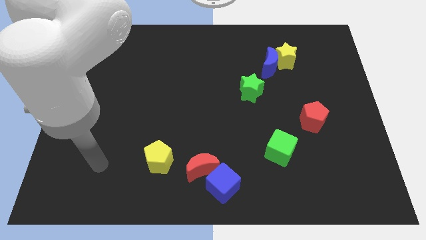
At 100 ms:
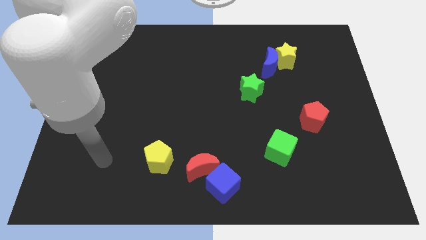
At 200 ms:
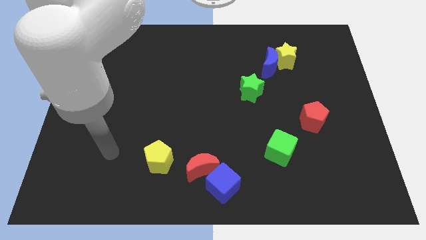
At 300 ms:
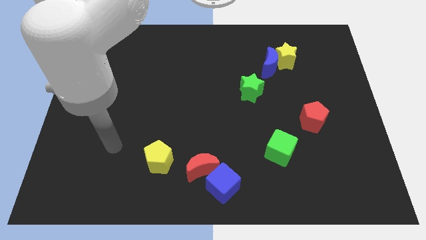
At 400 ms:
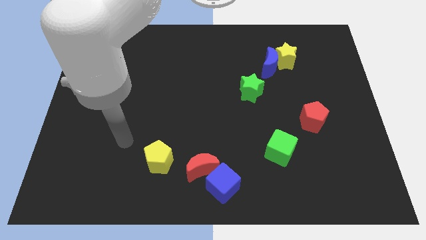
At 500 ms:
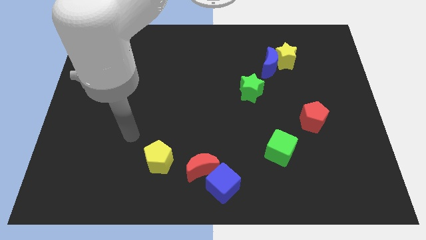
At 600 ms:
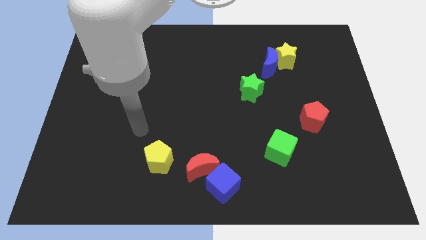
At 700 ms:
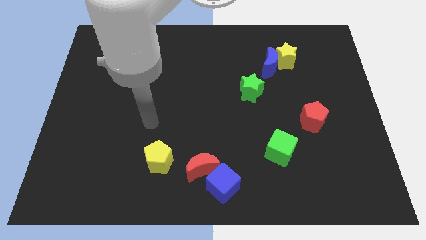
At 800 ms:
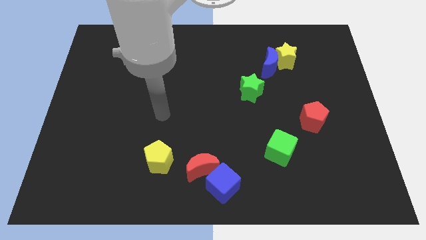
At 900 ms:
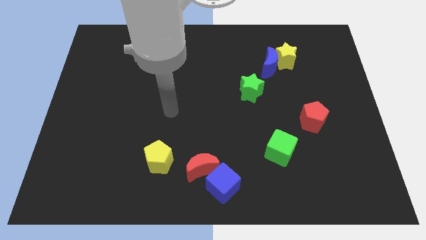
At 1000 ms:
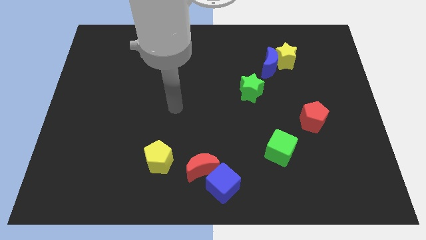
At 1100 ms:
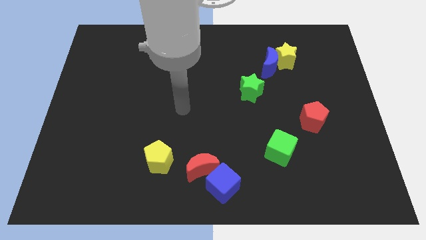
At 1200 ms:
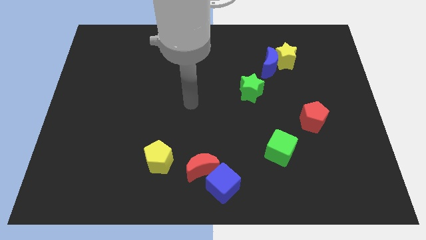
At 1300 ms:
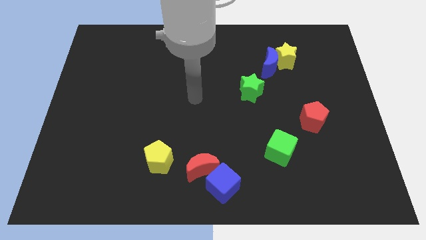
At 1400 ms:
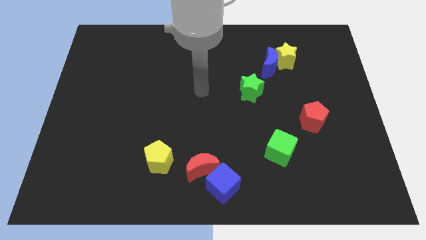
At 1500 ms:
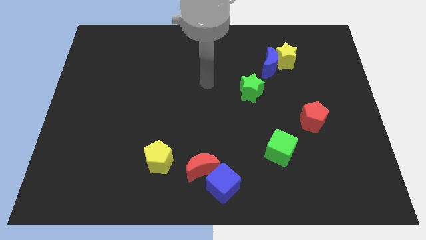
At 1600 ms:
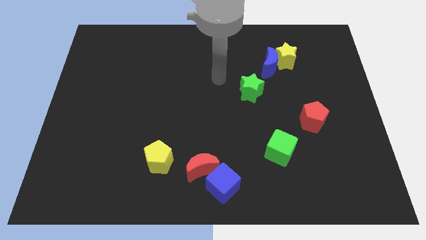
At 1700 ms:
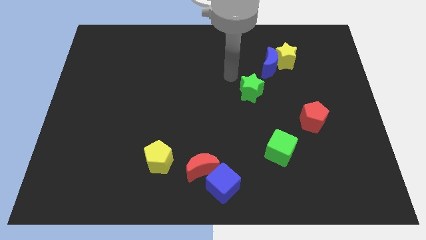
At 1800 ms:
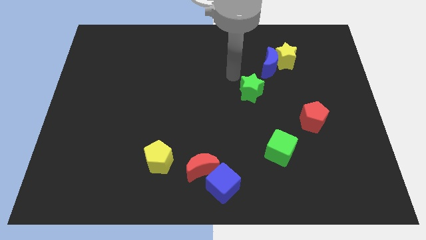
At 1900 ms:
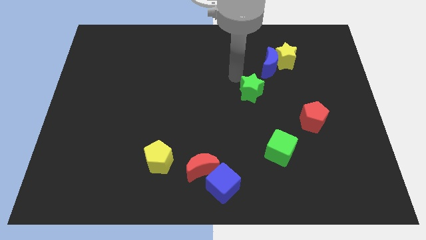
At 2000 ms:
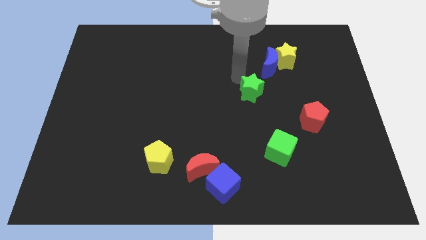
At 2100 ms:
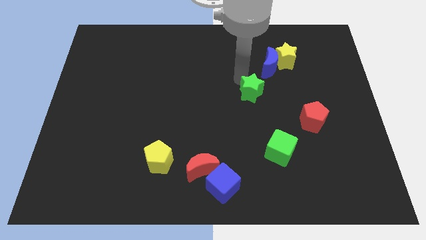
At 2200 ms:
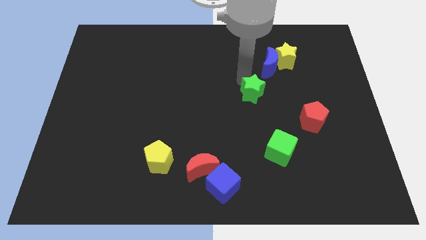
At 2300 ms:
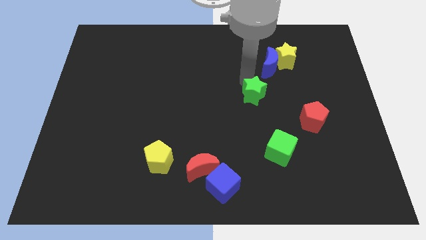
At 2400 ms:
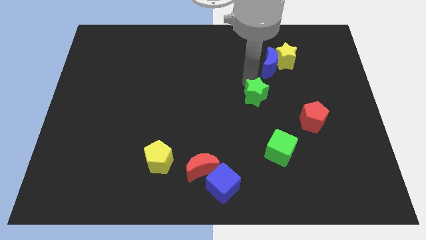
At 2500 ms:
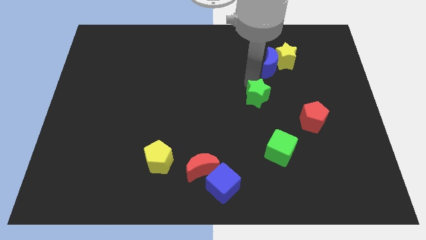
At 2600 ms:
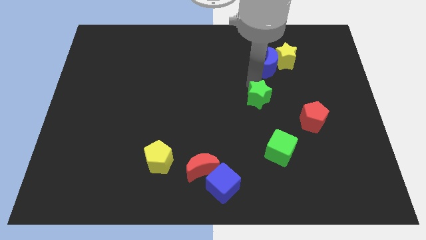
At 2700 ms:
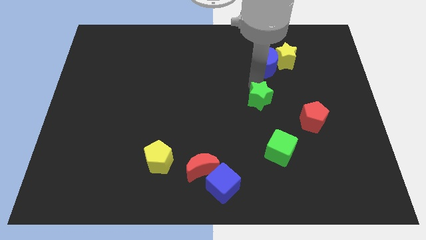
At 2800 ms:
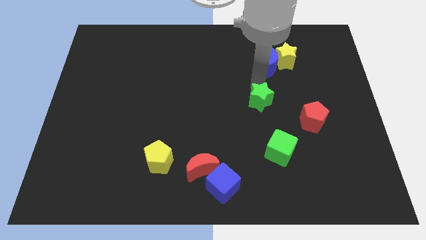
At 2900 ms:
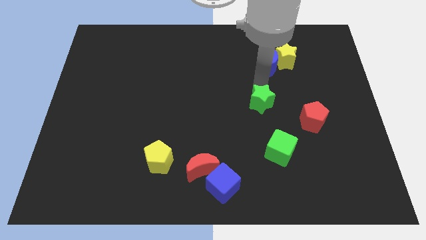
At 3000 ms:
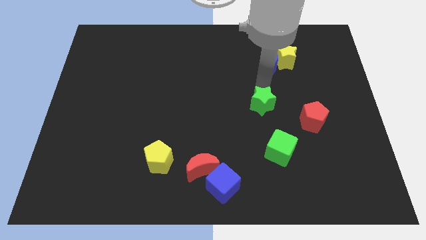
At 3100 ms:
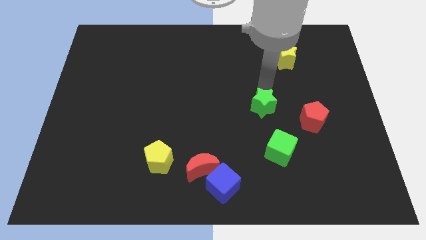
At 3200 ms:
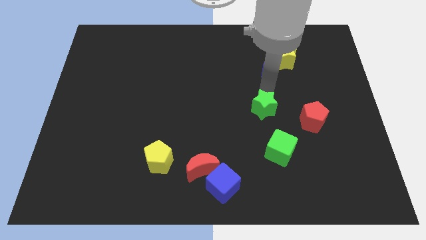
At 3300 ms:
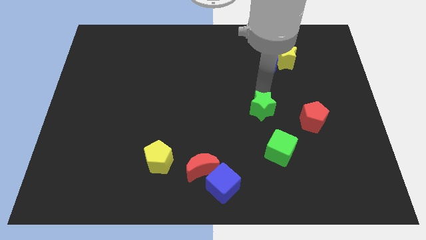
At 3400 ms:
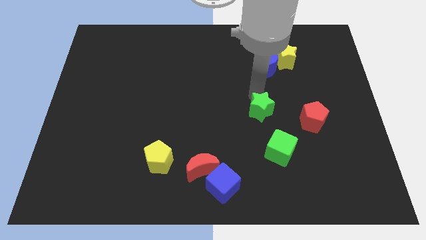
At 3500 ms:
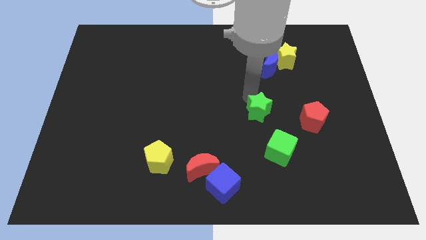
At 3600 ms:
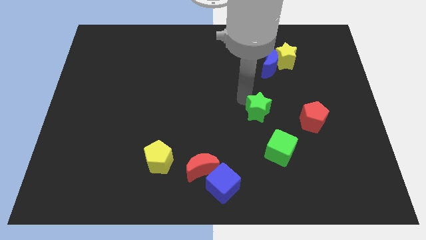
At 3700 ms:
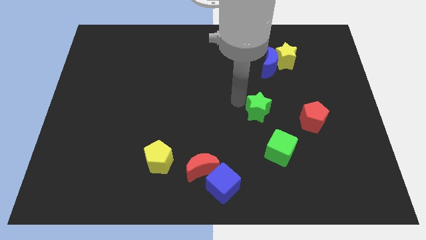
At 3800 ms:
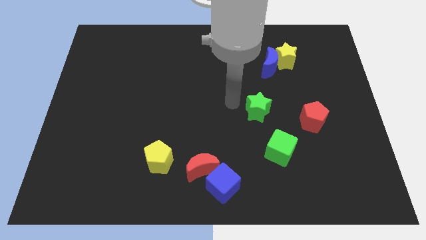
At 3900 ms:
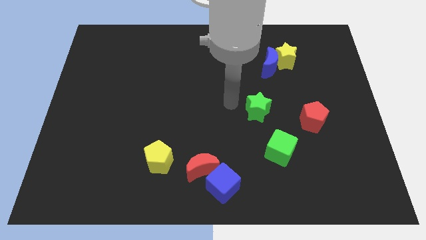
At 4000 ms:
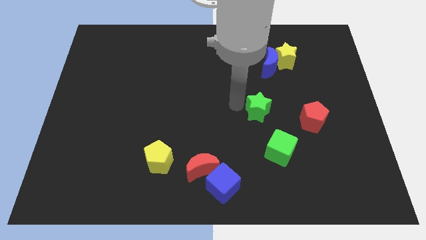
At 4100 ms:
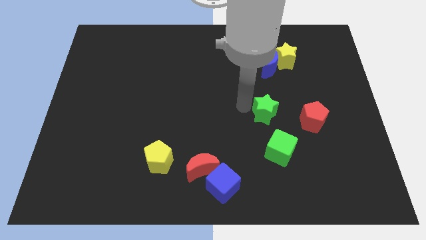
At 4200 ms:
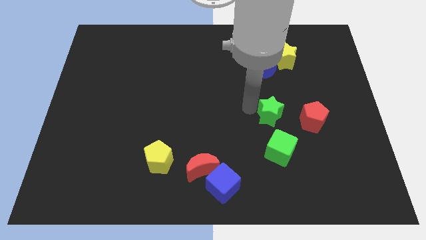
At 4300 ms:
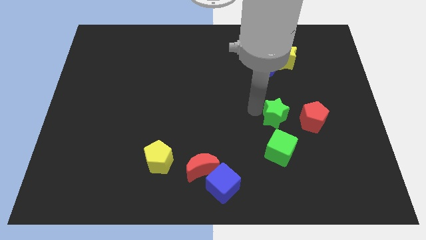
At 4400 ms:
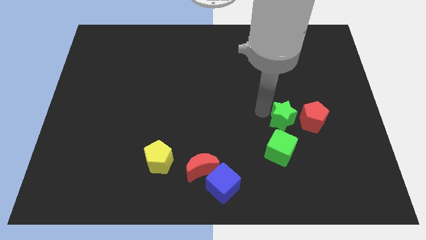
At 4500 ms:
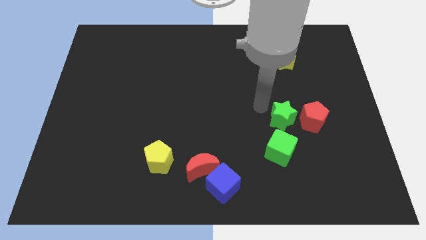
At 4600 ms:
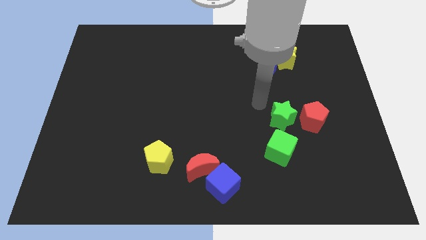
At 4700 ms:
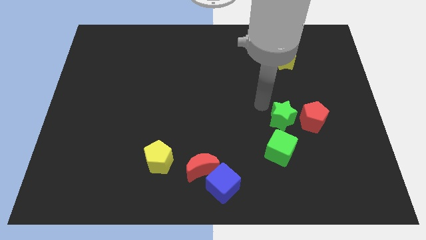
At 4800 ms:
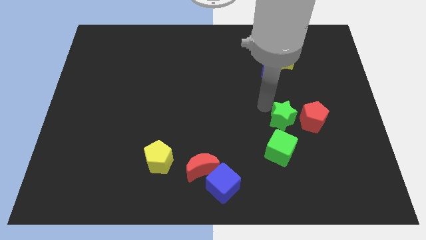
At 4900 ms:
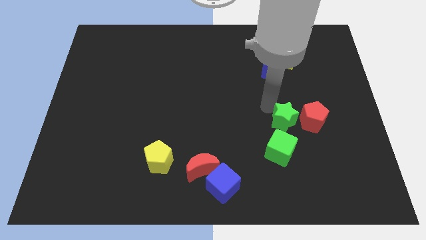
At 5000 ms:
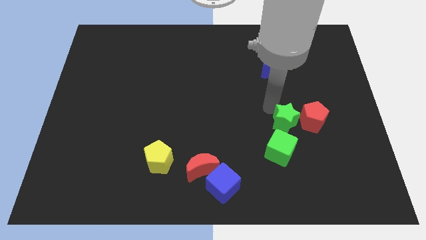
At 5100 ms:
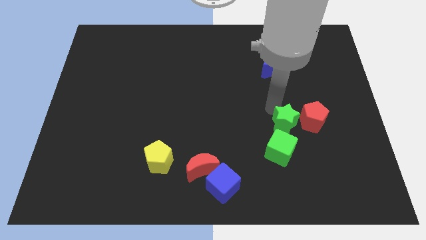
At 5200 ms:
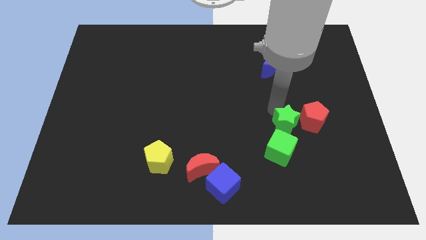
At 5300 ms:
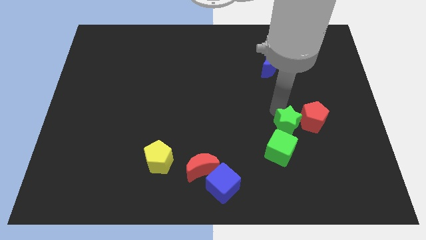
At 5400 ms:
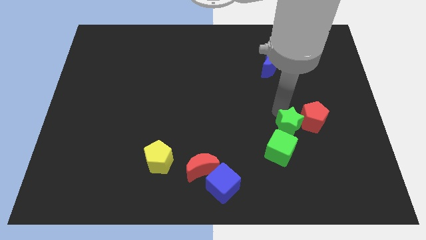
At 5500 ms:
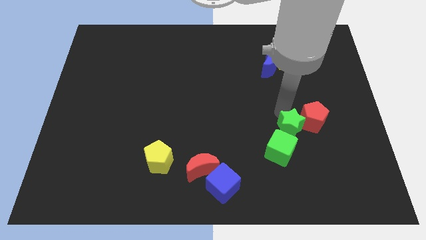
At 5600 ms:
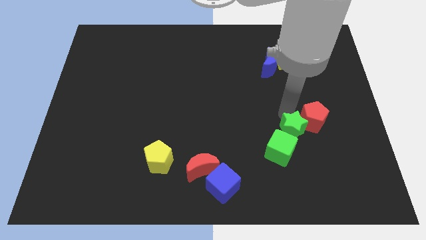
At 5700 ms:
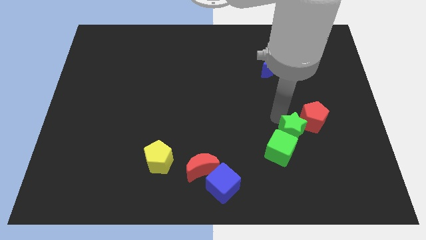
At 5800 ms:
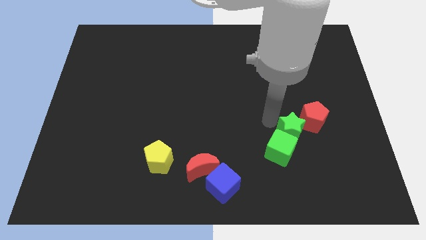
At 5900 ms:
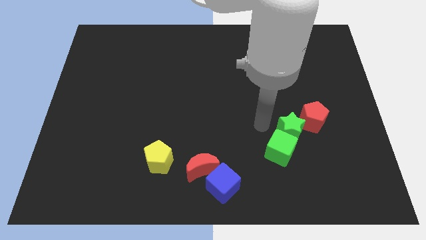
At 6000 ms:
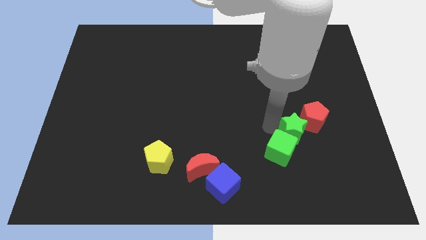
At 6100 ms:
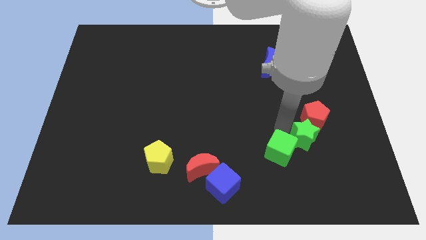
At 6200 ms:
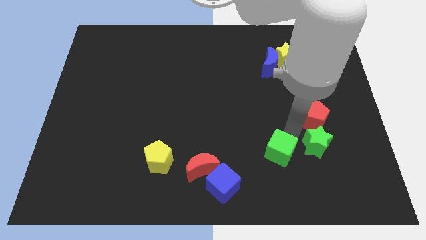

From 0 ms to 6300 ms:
slide the green star to the bottom right of the red pentagon

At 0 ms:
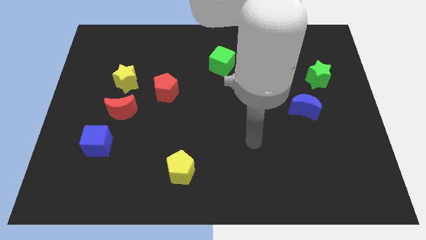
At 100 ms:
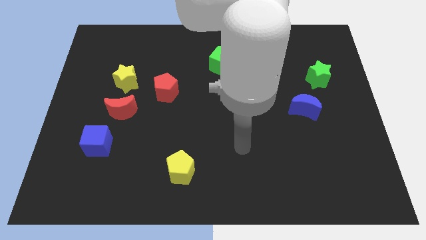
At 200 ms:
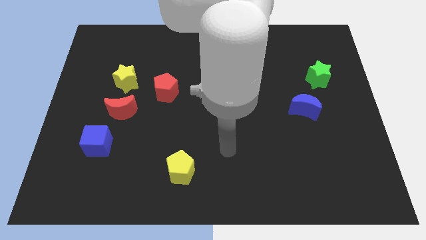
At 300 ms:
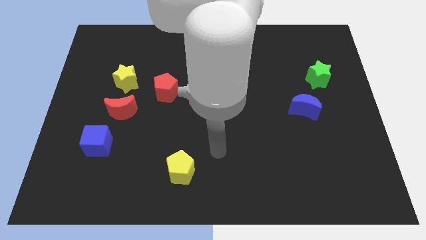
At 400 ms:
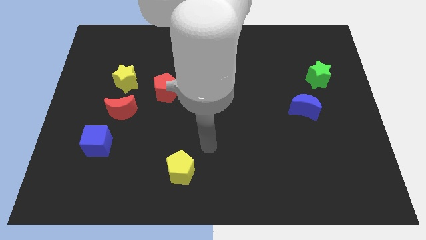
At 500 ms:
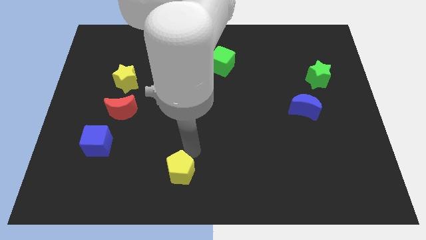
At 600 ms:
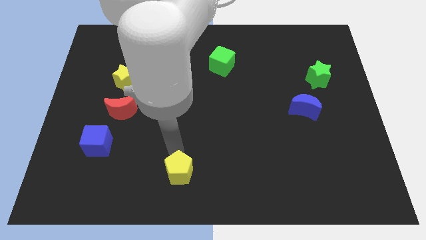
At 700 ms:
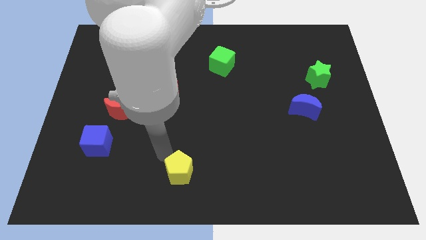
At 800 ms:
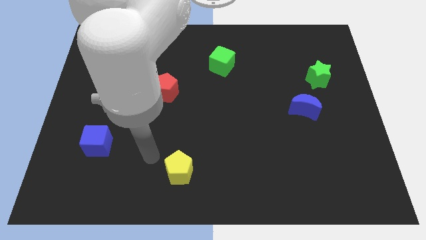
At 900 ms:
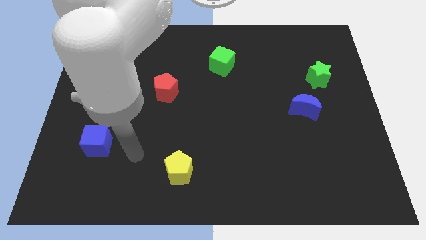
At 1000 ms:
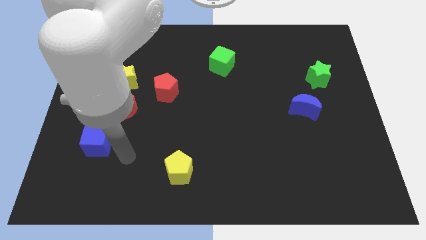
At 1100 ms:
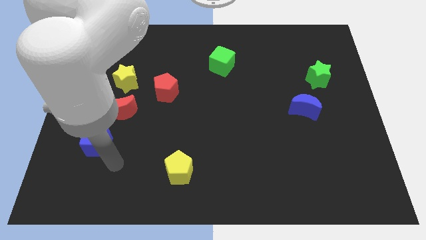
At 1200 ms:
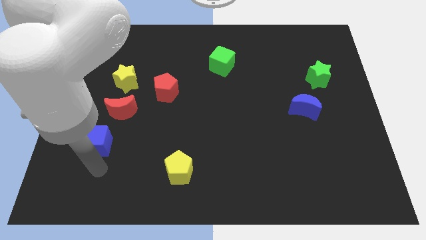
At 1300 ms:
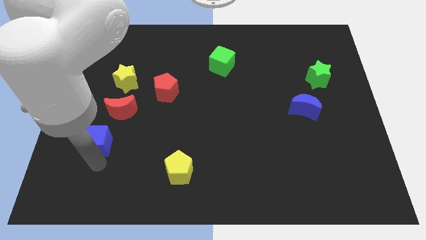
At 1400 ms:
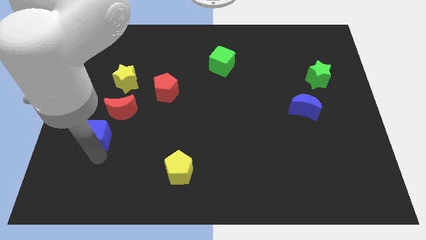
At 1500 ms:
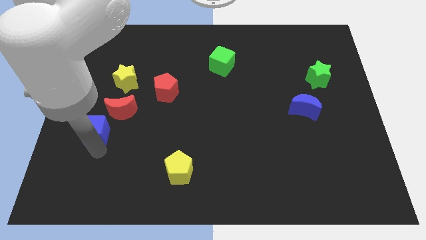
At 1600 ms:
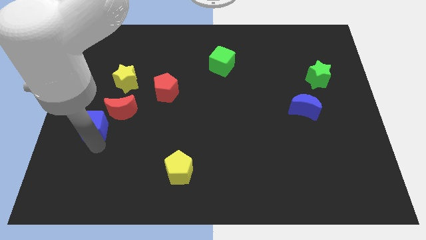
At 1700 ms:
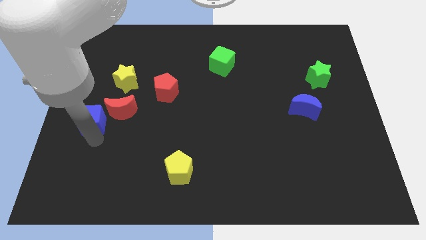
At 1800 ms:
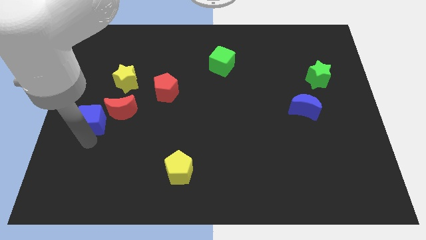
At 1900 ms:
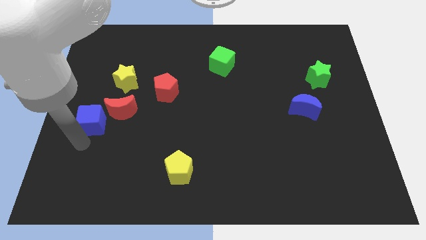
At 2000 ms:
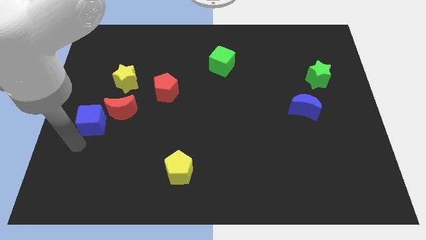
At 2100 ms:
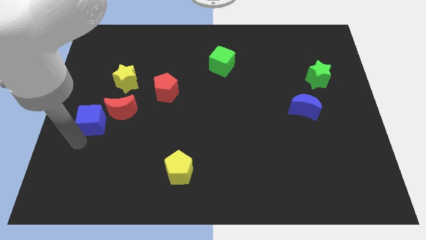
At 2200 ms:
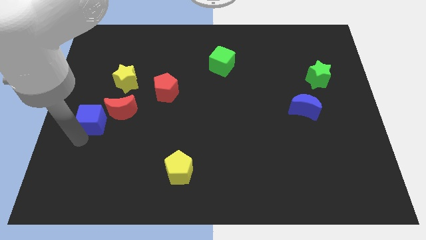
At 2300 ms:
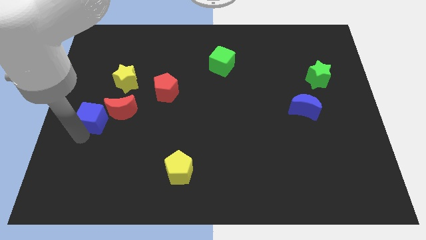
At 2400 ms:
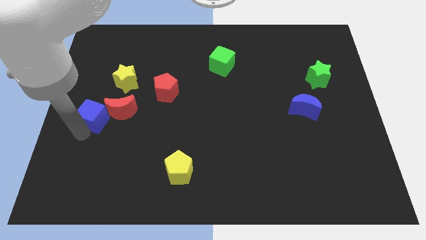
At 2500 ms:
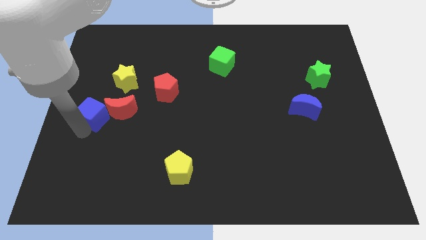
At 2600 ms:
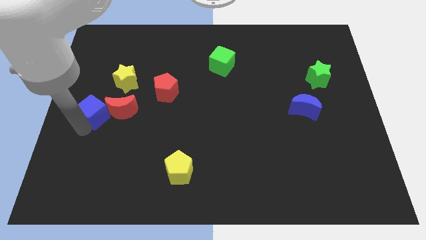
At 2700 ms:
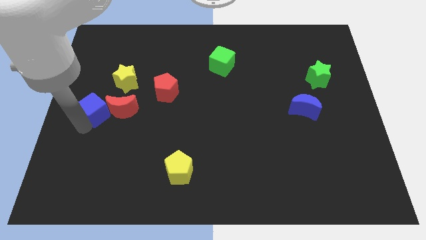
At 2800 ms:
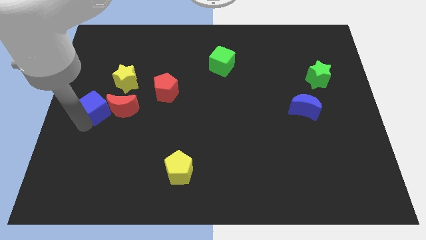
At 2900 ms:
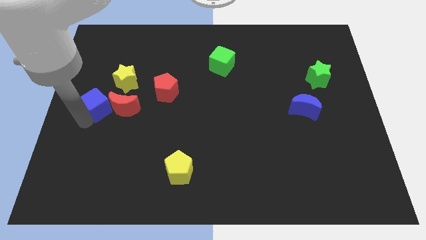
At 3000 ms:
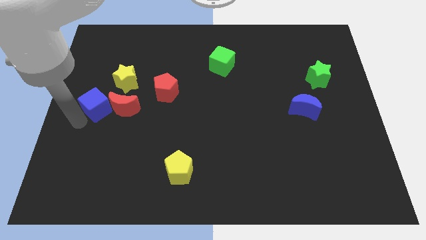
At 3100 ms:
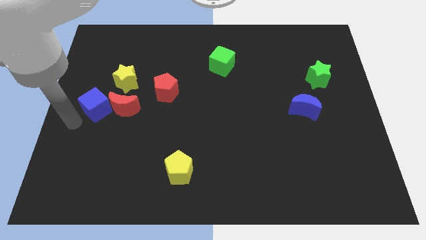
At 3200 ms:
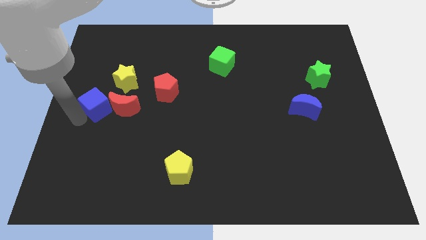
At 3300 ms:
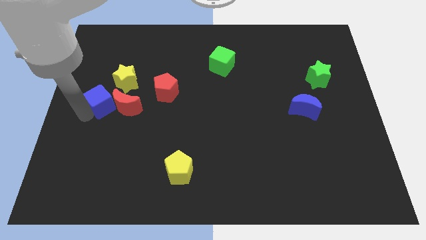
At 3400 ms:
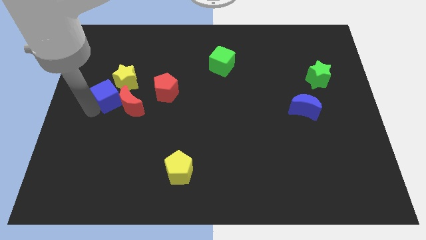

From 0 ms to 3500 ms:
push the blue cube to the left of the red pentagon
